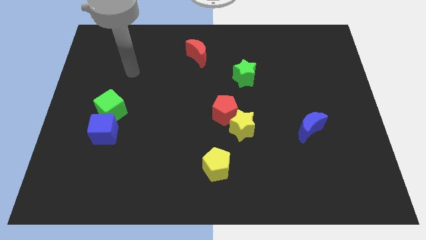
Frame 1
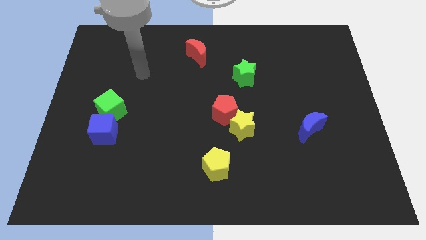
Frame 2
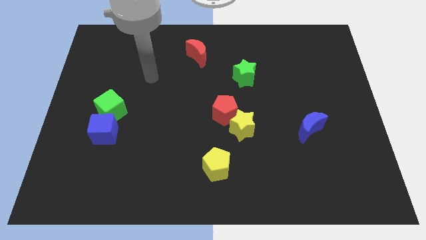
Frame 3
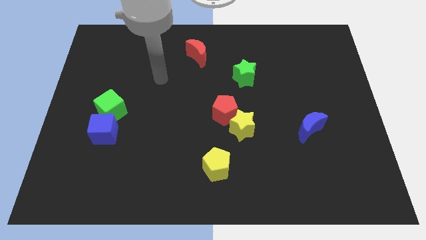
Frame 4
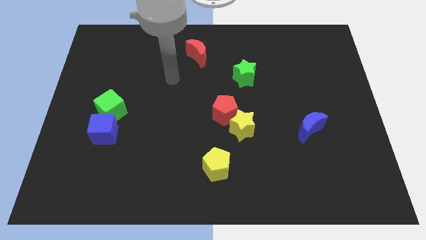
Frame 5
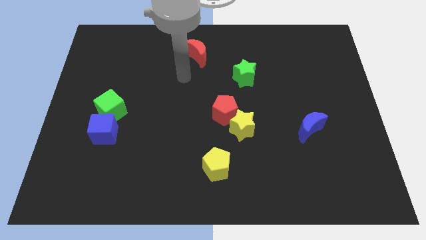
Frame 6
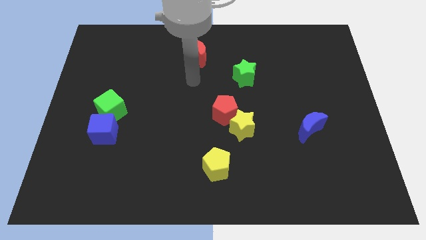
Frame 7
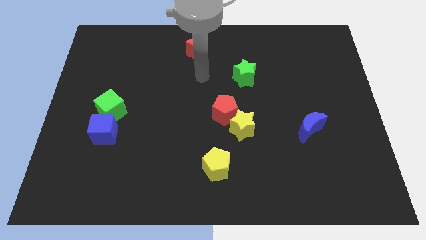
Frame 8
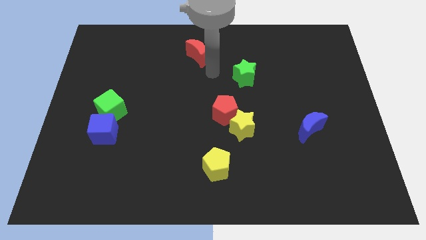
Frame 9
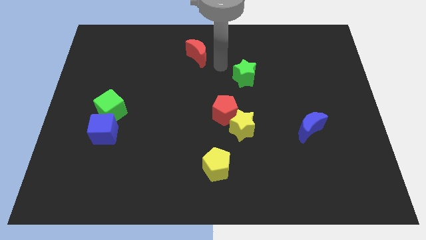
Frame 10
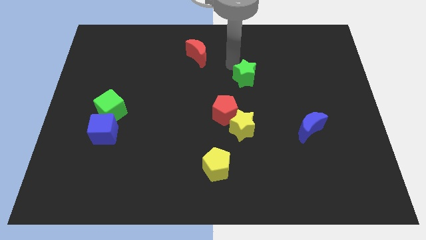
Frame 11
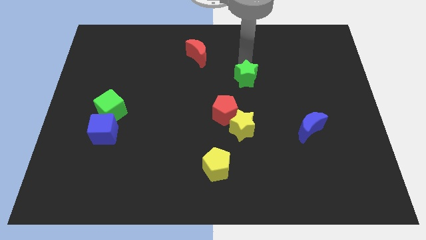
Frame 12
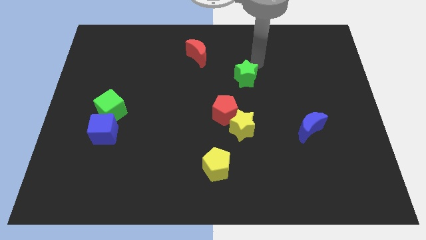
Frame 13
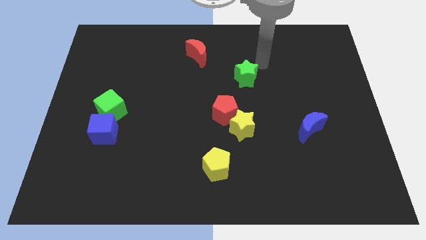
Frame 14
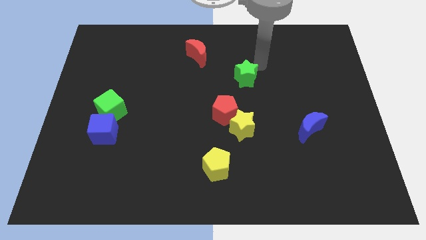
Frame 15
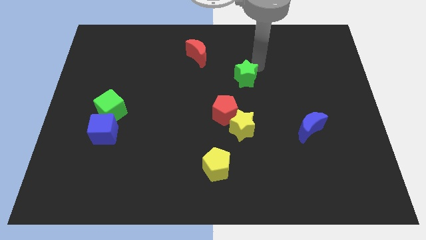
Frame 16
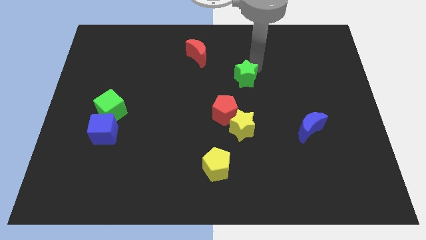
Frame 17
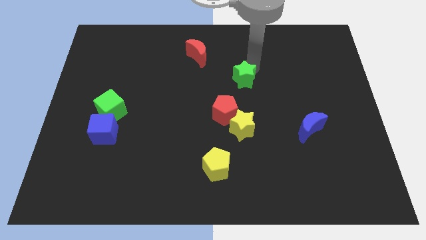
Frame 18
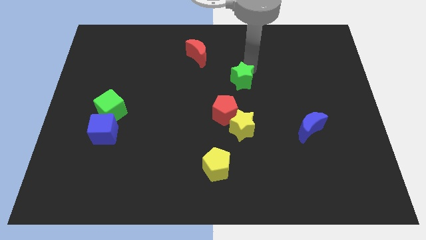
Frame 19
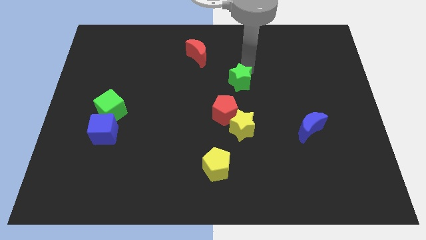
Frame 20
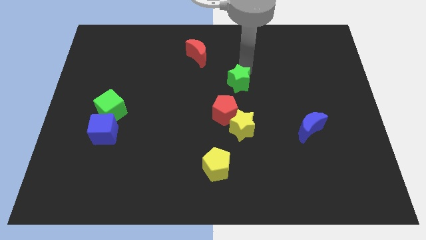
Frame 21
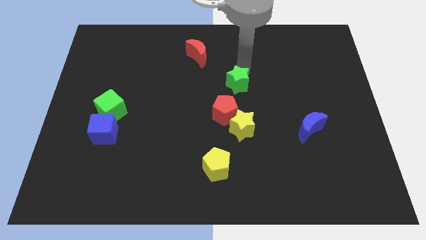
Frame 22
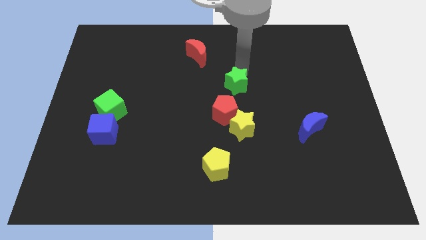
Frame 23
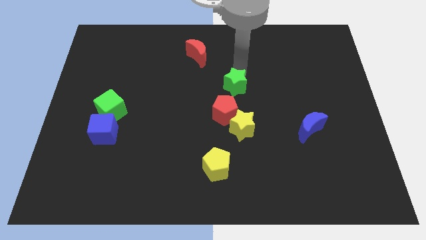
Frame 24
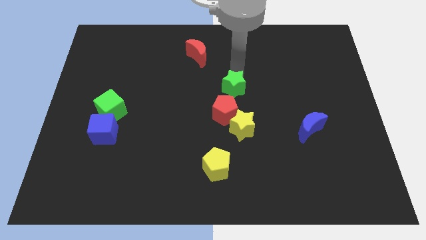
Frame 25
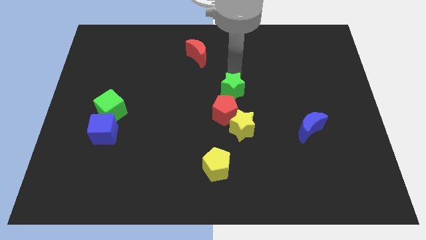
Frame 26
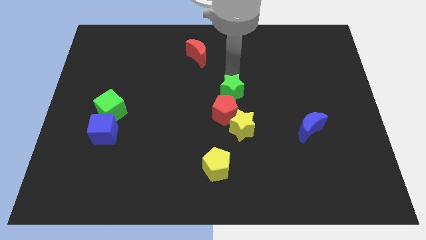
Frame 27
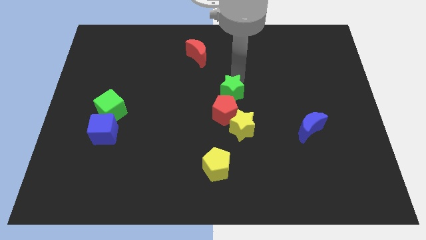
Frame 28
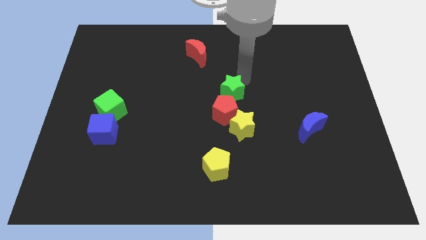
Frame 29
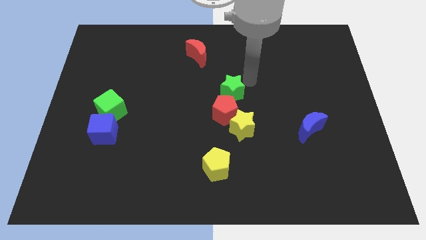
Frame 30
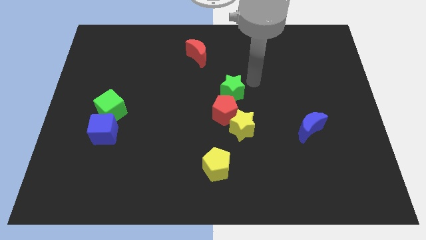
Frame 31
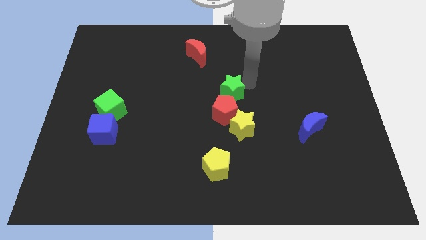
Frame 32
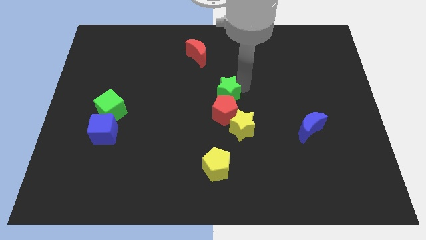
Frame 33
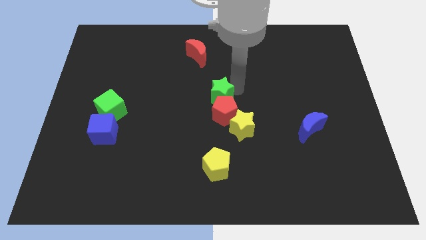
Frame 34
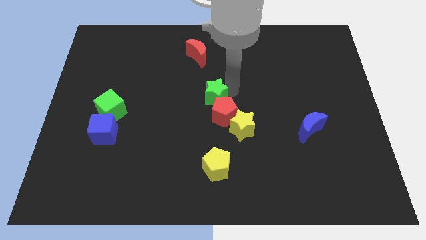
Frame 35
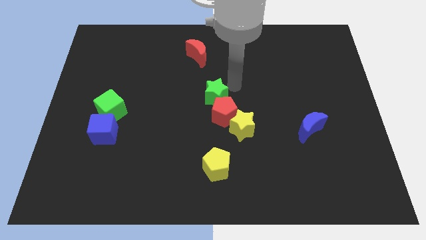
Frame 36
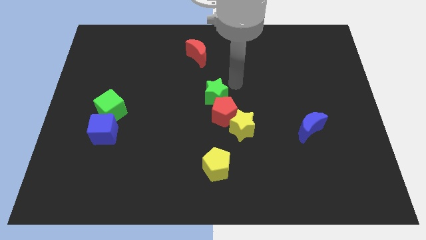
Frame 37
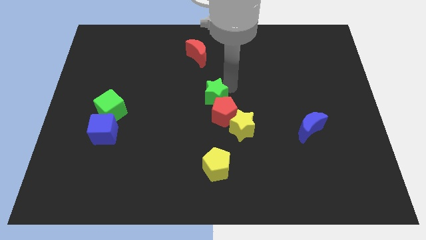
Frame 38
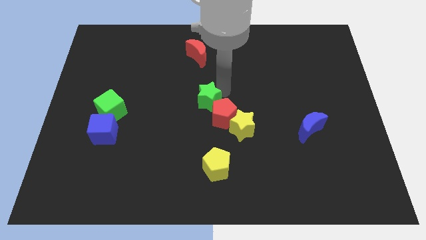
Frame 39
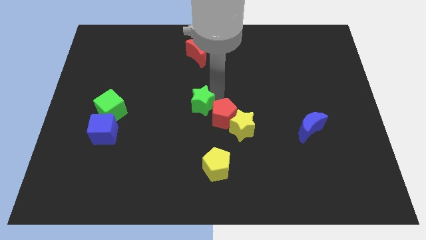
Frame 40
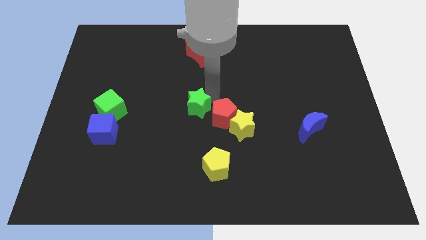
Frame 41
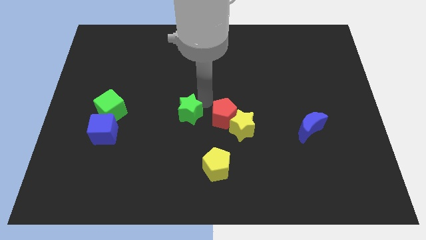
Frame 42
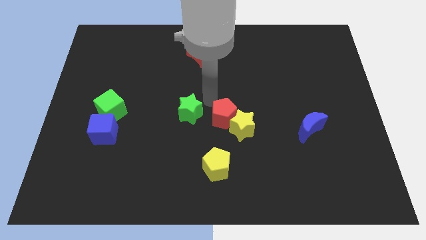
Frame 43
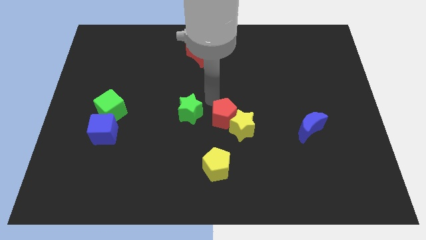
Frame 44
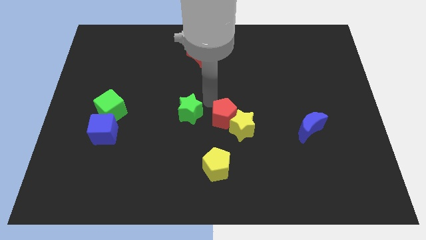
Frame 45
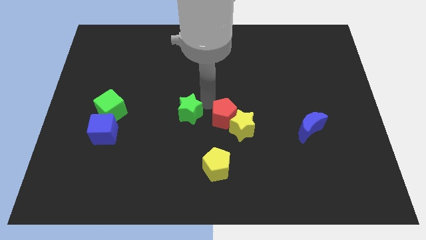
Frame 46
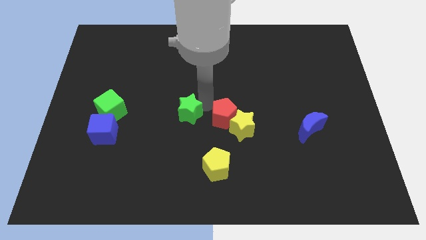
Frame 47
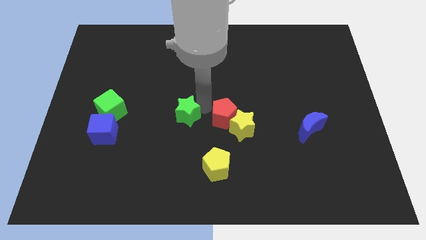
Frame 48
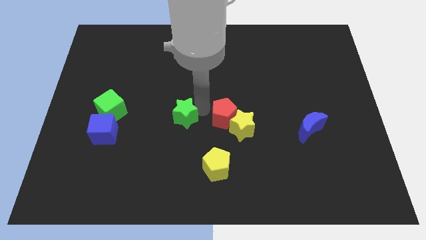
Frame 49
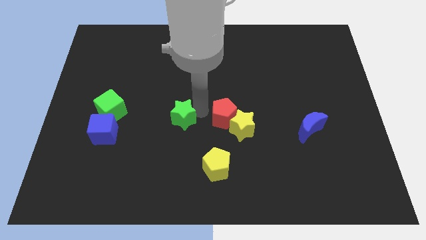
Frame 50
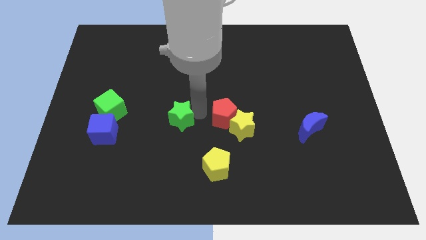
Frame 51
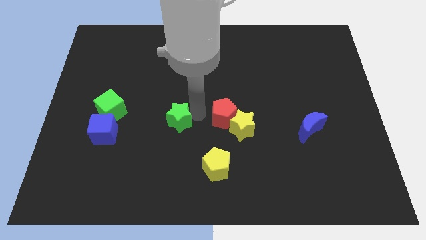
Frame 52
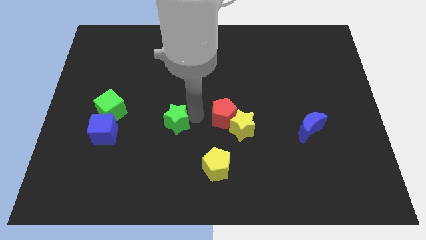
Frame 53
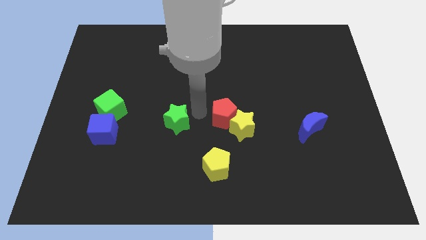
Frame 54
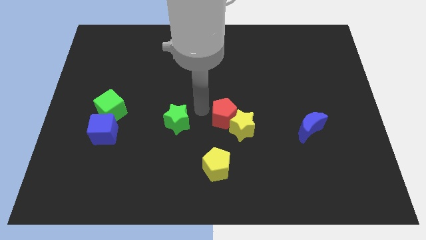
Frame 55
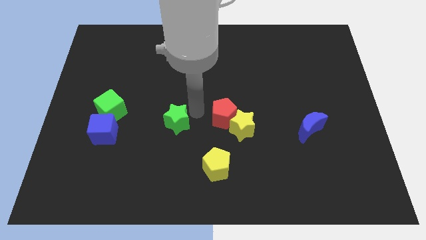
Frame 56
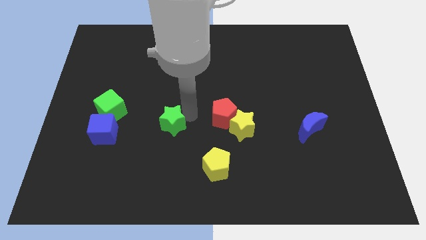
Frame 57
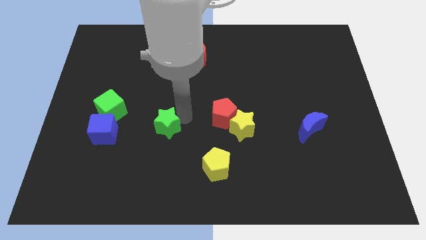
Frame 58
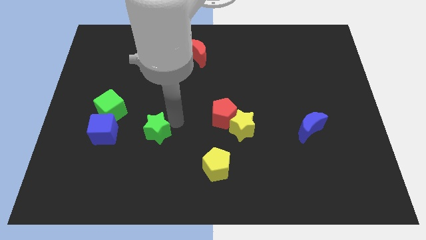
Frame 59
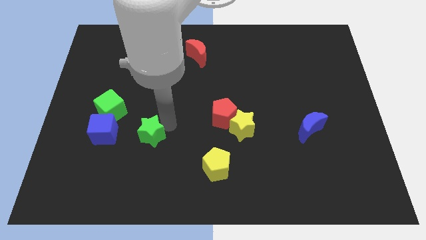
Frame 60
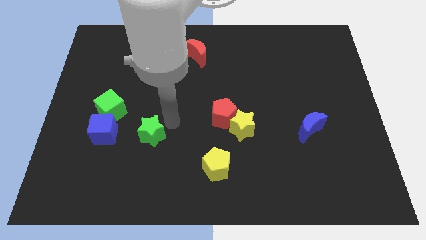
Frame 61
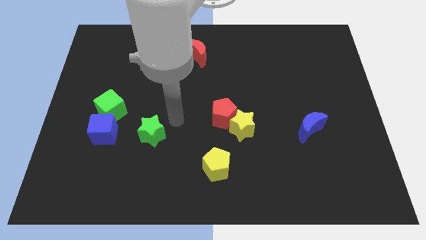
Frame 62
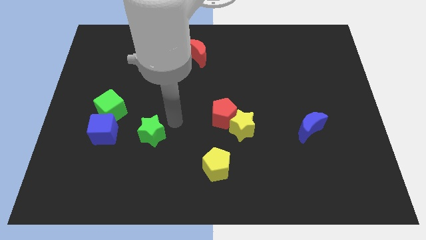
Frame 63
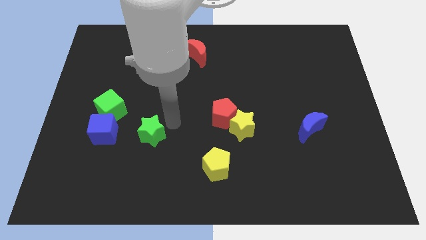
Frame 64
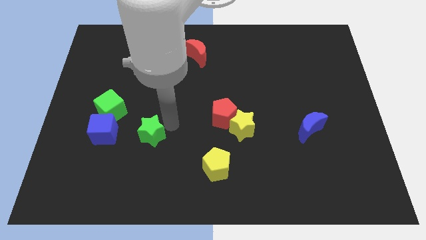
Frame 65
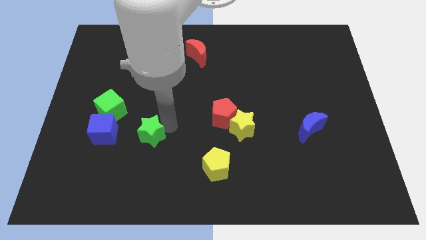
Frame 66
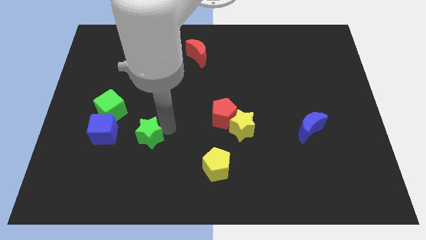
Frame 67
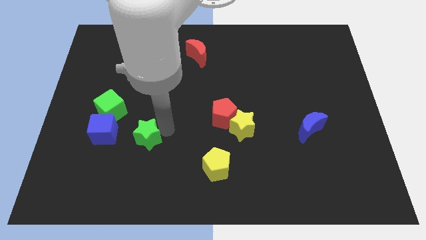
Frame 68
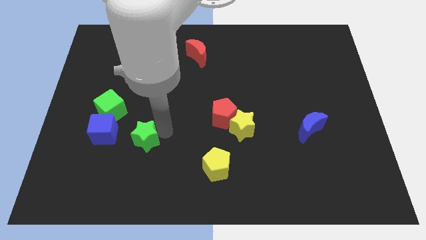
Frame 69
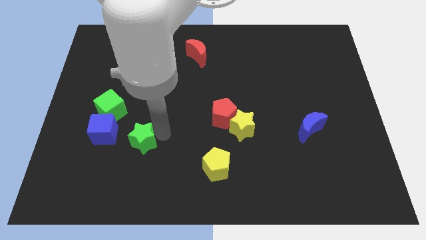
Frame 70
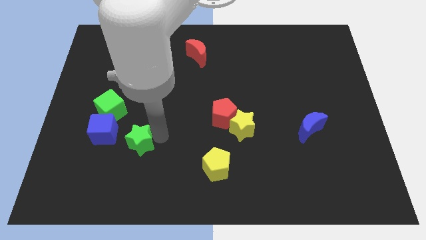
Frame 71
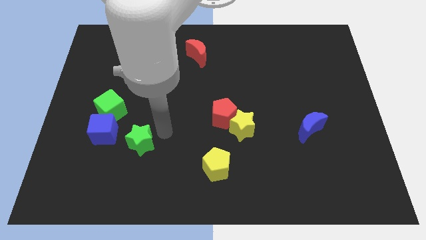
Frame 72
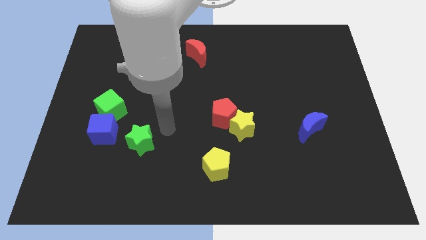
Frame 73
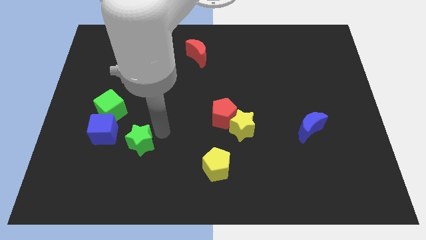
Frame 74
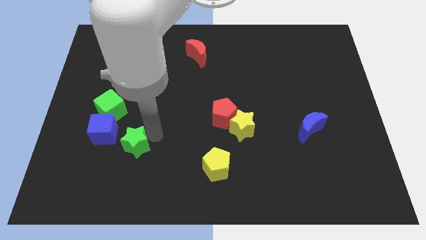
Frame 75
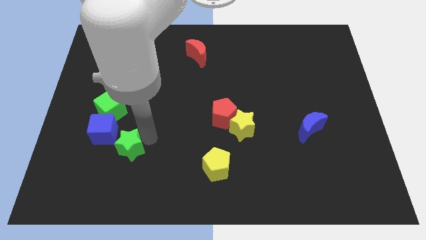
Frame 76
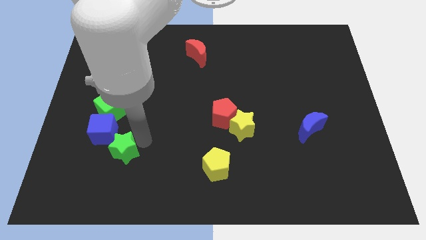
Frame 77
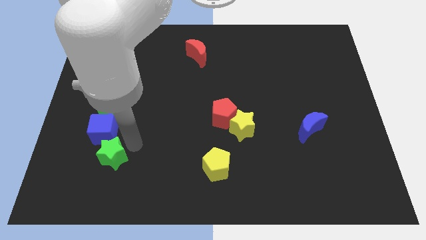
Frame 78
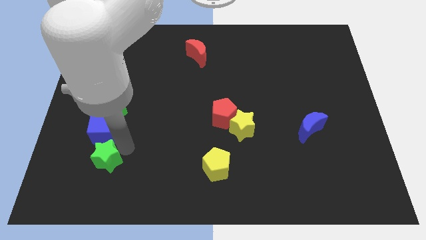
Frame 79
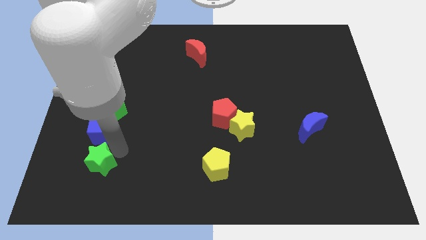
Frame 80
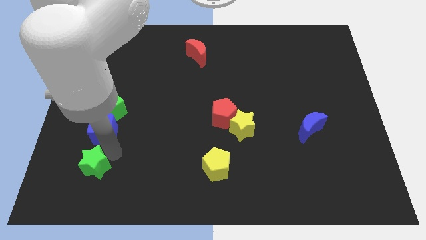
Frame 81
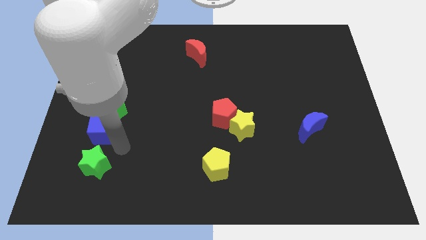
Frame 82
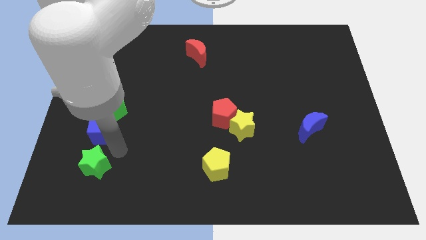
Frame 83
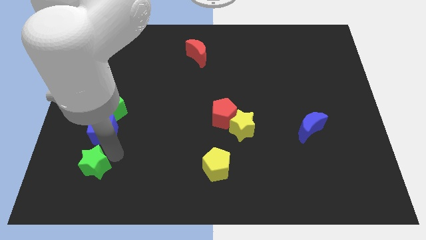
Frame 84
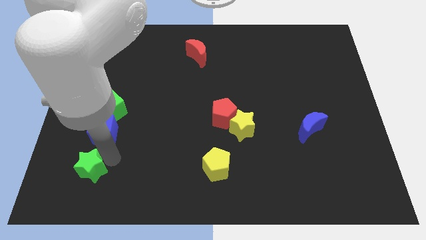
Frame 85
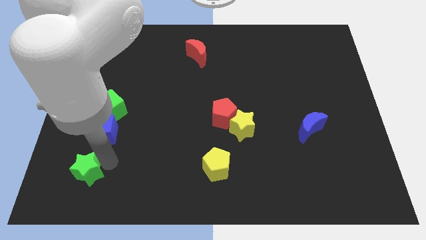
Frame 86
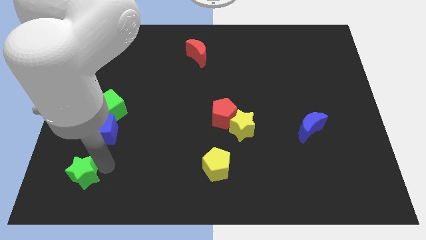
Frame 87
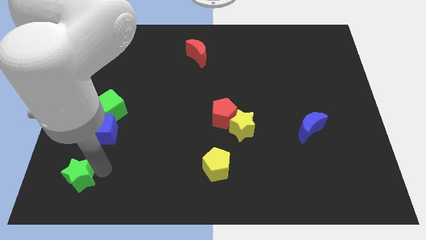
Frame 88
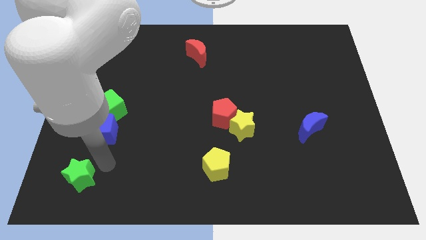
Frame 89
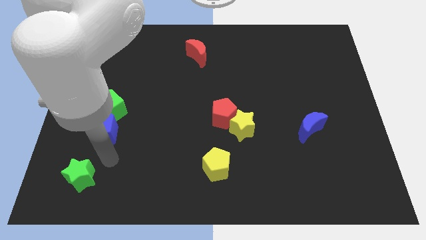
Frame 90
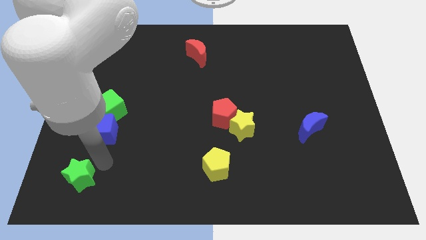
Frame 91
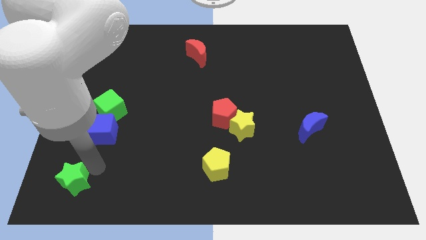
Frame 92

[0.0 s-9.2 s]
slide the green star to the lower left corner
